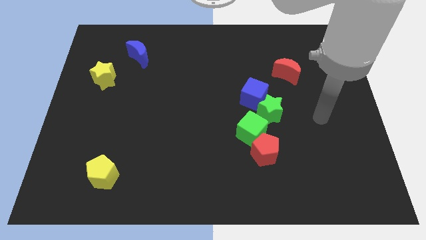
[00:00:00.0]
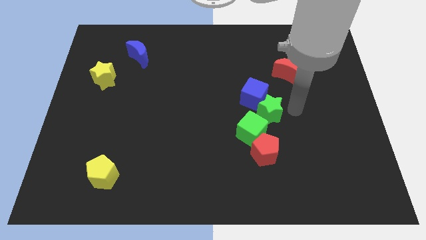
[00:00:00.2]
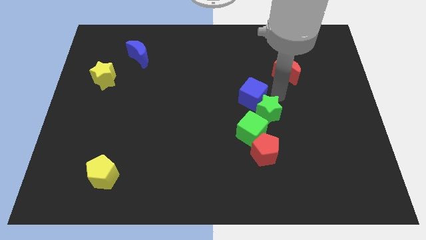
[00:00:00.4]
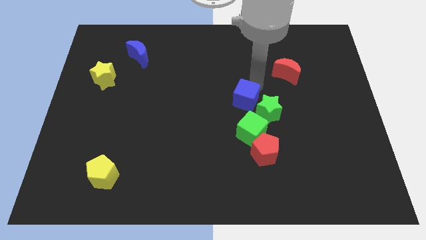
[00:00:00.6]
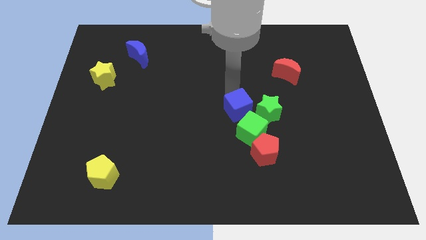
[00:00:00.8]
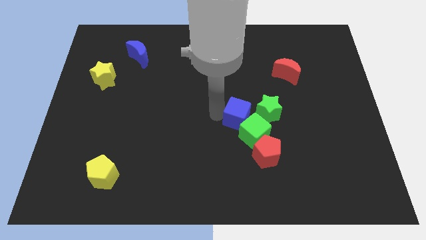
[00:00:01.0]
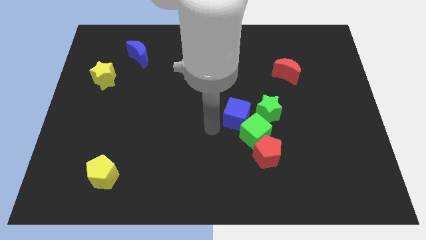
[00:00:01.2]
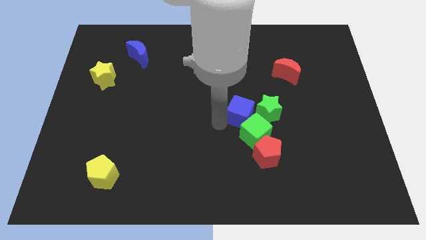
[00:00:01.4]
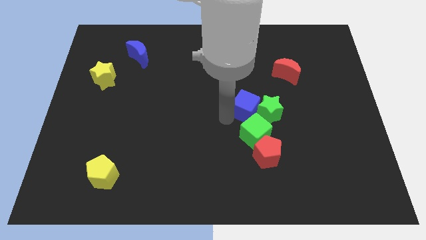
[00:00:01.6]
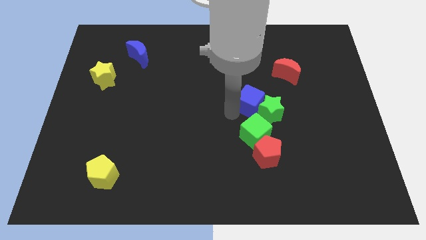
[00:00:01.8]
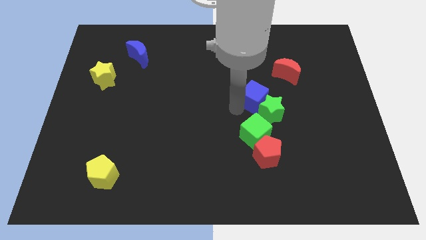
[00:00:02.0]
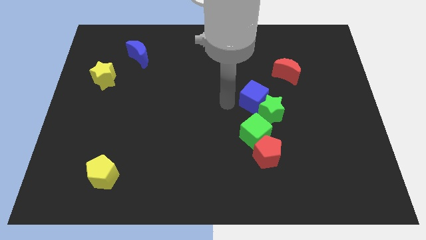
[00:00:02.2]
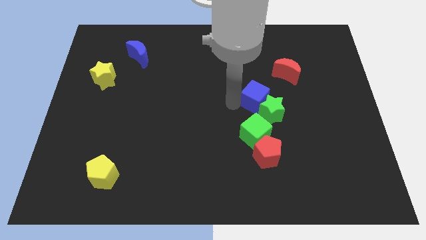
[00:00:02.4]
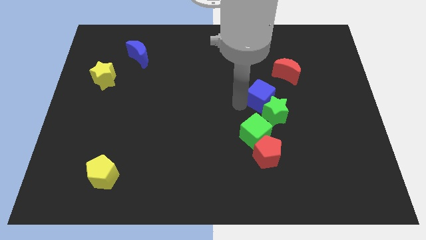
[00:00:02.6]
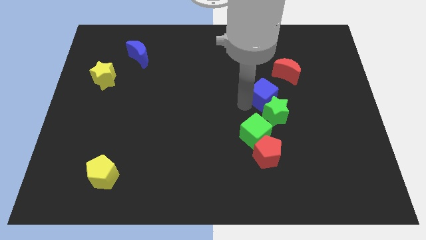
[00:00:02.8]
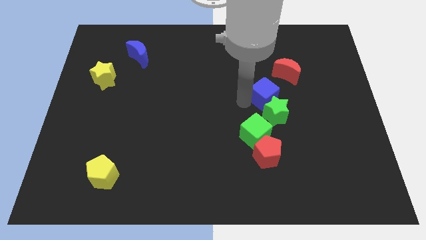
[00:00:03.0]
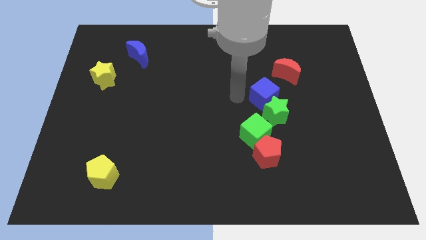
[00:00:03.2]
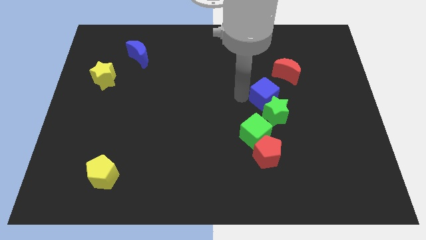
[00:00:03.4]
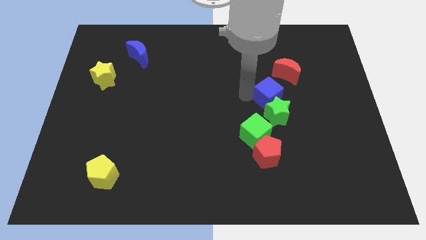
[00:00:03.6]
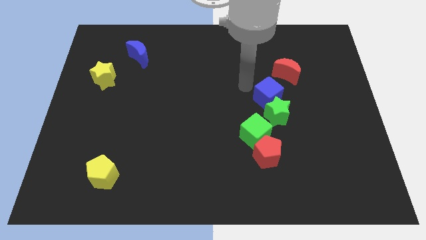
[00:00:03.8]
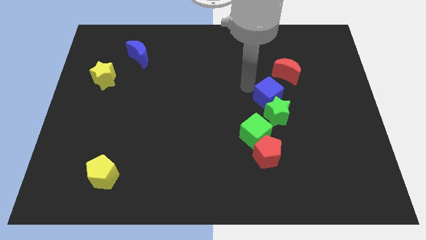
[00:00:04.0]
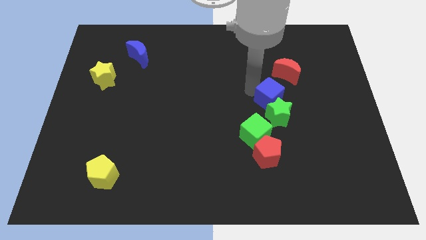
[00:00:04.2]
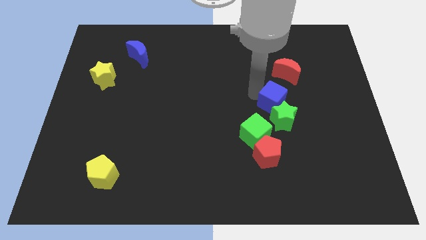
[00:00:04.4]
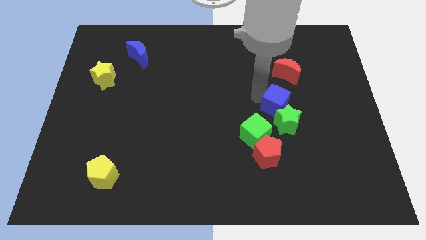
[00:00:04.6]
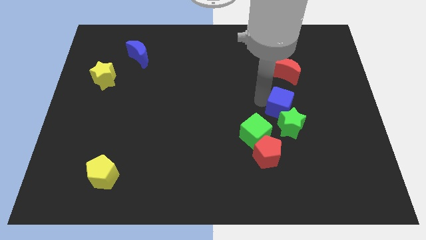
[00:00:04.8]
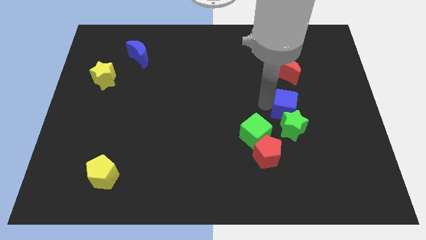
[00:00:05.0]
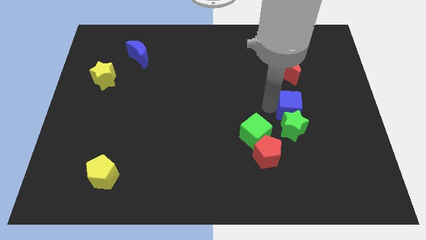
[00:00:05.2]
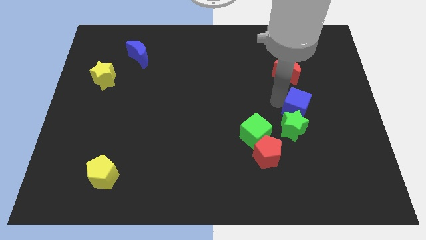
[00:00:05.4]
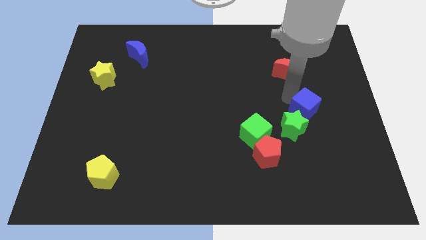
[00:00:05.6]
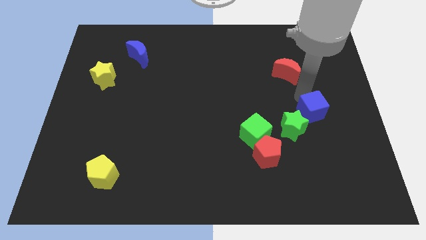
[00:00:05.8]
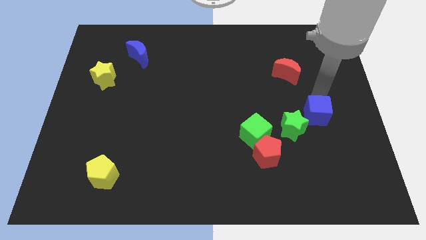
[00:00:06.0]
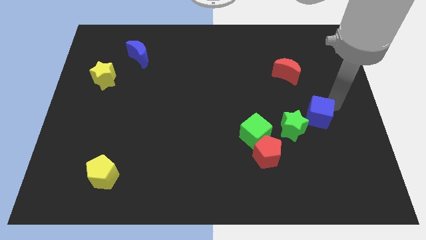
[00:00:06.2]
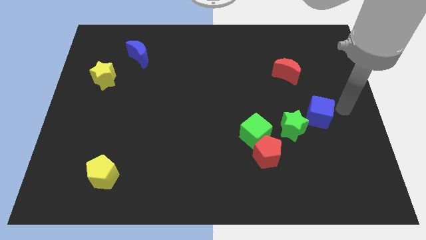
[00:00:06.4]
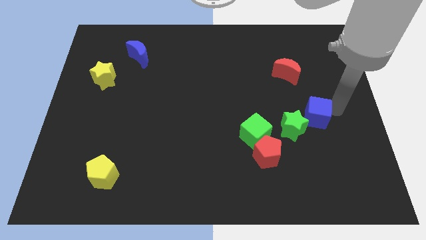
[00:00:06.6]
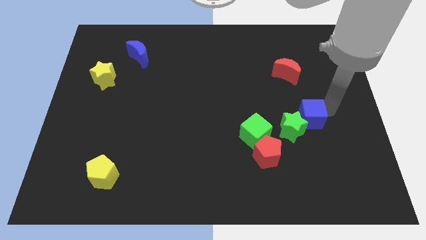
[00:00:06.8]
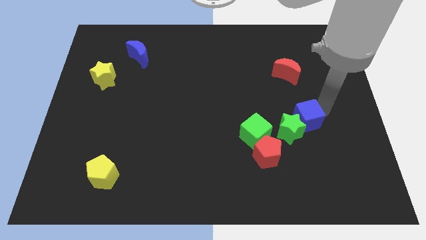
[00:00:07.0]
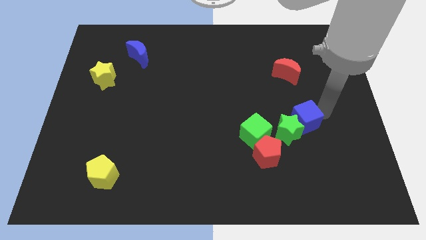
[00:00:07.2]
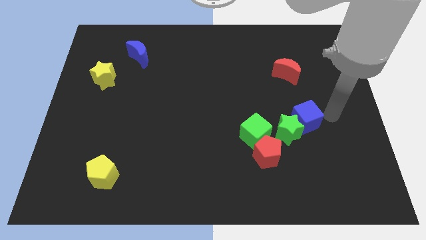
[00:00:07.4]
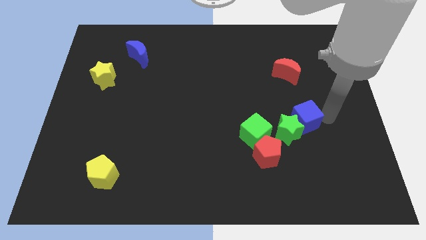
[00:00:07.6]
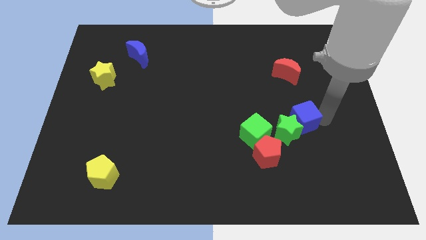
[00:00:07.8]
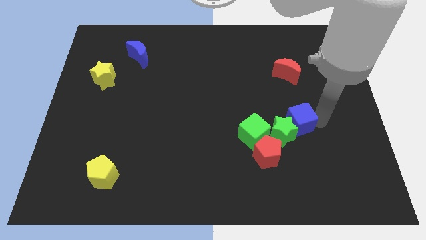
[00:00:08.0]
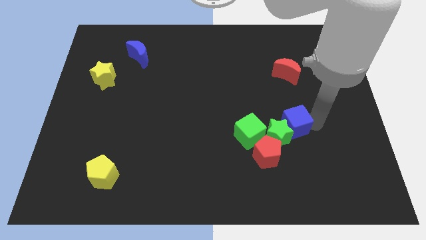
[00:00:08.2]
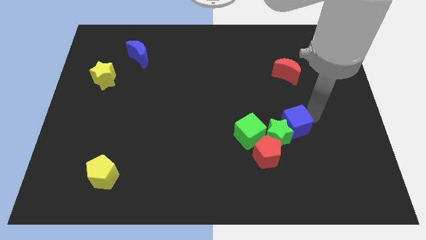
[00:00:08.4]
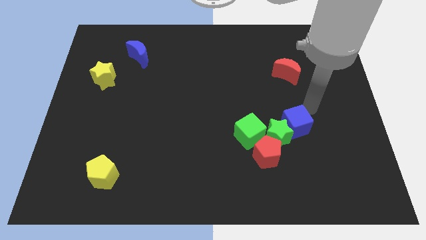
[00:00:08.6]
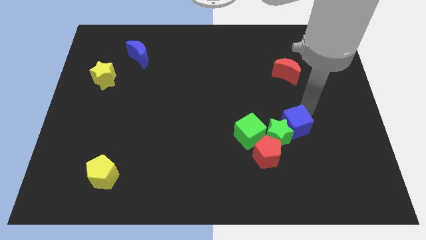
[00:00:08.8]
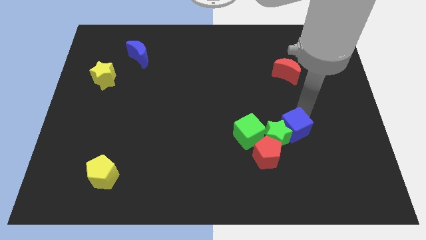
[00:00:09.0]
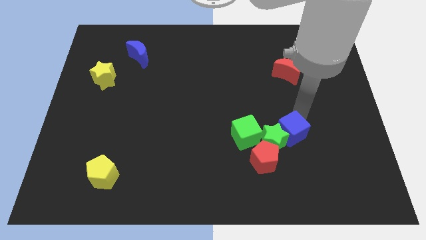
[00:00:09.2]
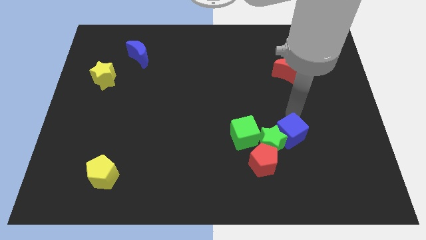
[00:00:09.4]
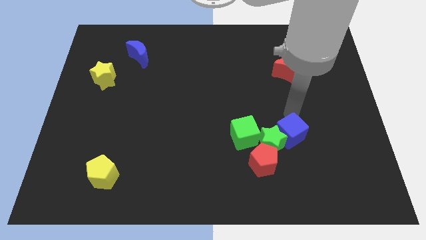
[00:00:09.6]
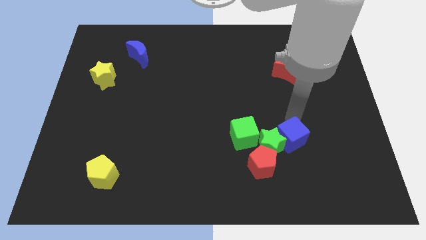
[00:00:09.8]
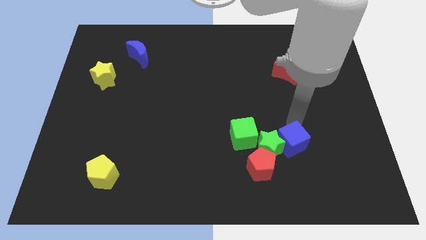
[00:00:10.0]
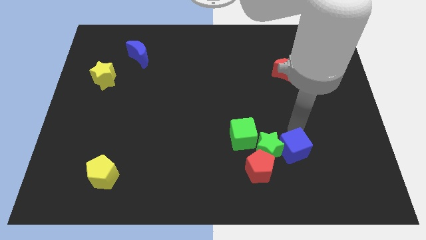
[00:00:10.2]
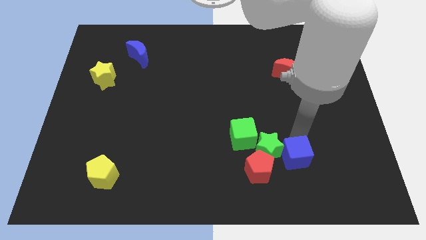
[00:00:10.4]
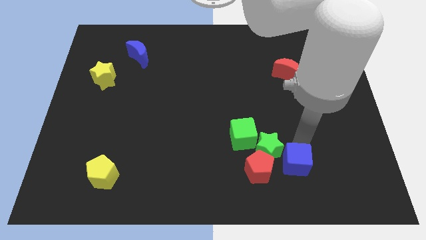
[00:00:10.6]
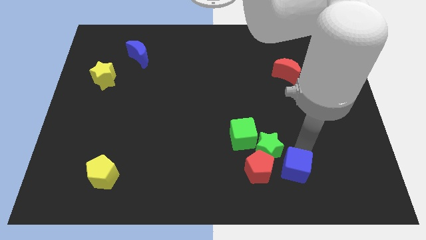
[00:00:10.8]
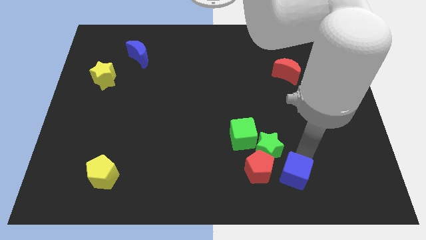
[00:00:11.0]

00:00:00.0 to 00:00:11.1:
push the blue cube to the bottom right side of the red pentagon

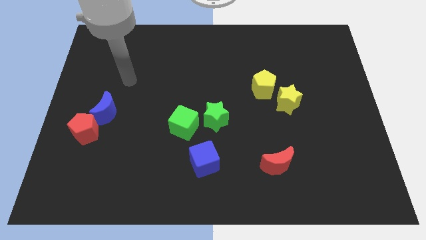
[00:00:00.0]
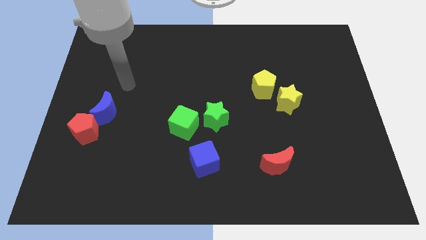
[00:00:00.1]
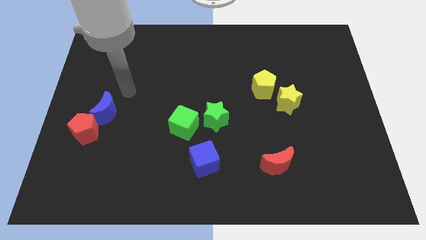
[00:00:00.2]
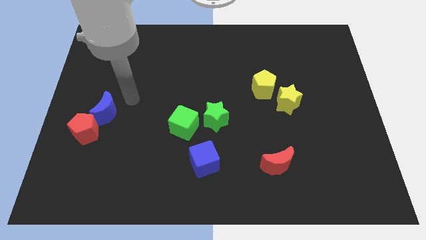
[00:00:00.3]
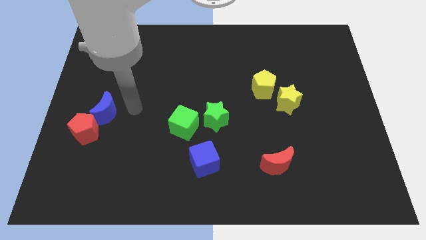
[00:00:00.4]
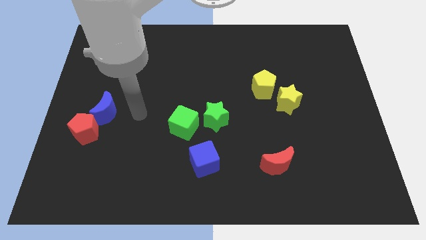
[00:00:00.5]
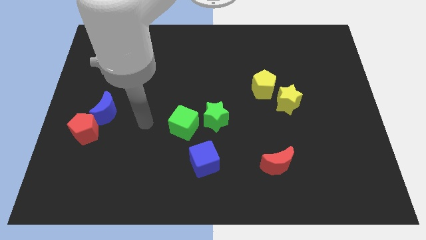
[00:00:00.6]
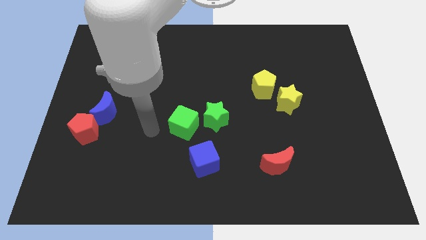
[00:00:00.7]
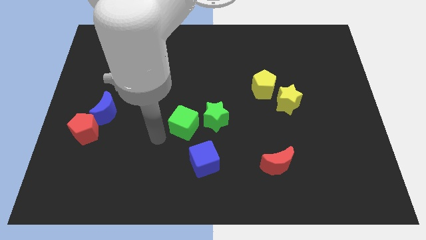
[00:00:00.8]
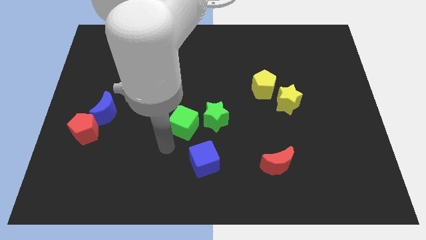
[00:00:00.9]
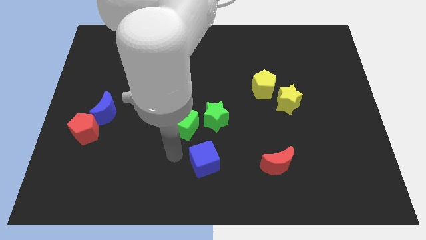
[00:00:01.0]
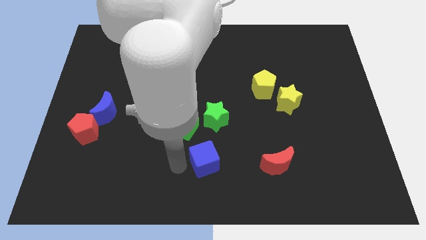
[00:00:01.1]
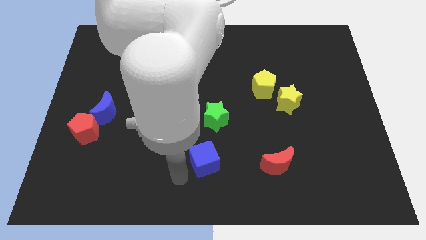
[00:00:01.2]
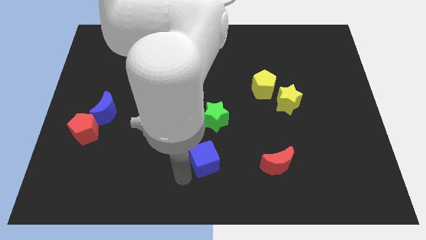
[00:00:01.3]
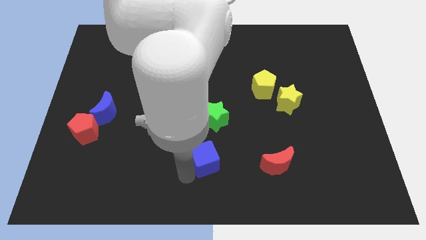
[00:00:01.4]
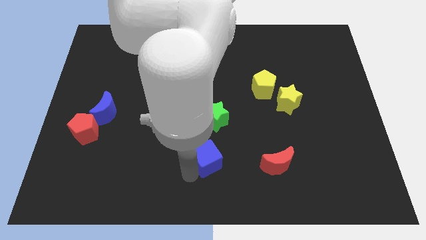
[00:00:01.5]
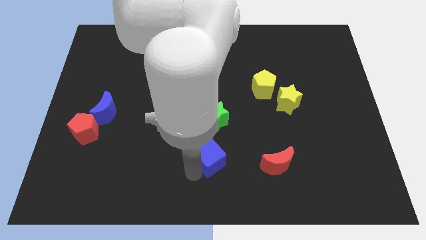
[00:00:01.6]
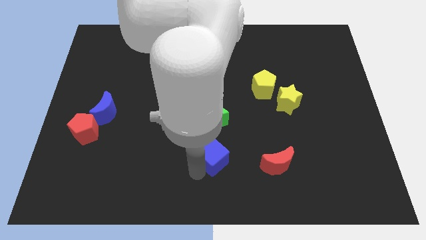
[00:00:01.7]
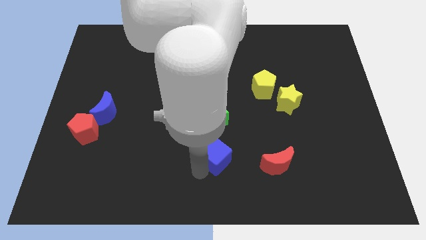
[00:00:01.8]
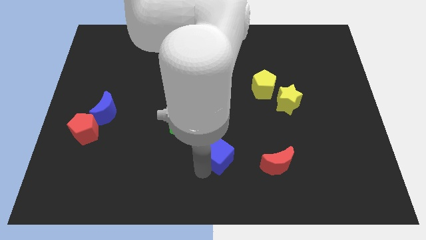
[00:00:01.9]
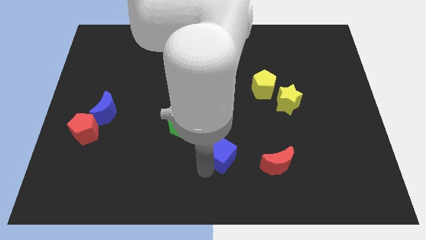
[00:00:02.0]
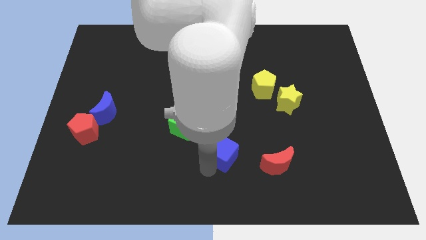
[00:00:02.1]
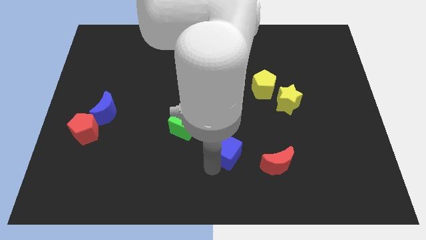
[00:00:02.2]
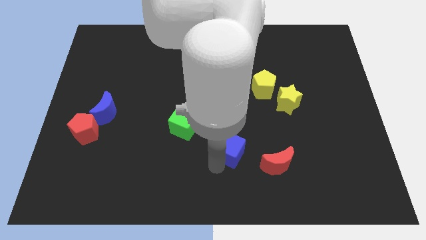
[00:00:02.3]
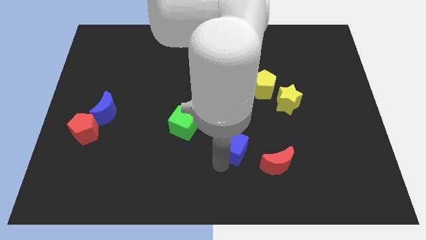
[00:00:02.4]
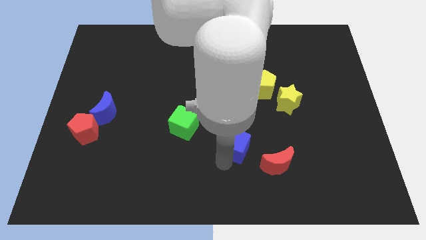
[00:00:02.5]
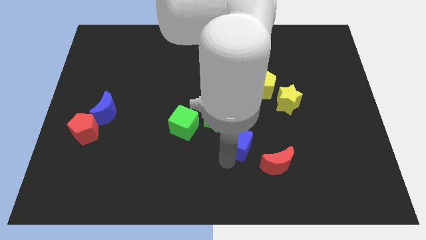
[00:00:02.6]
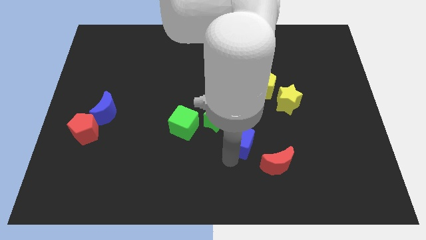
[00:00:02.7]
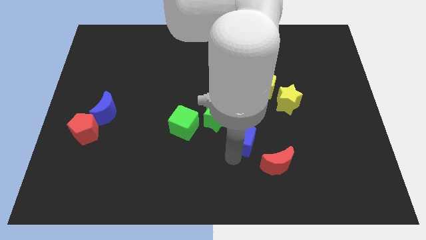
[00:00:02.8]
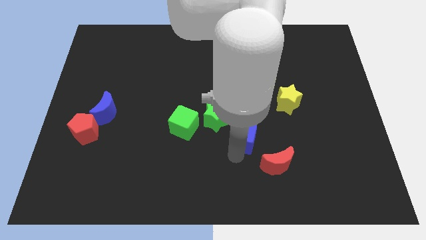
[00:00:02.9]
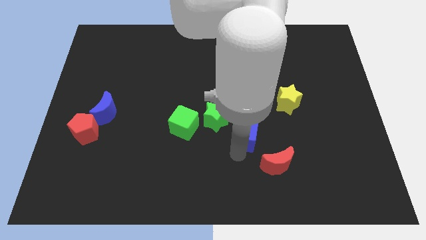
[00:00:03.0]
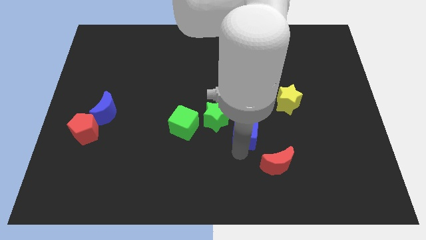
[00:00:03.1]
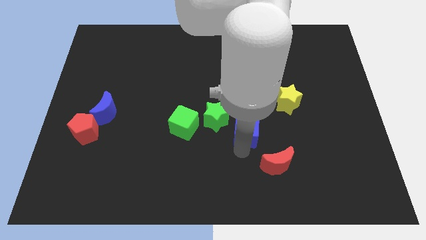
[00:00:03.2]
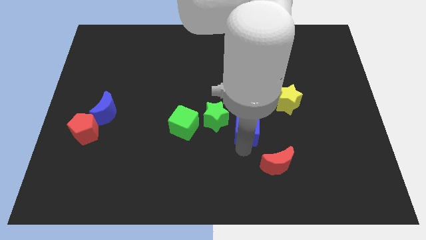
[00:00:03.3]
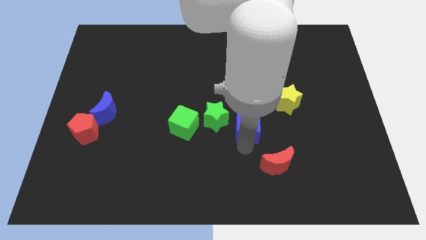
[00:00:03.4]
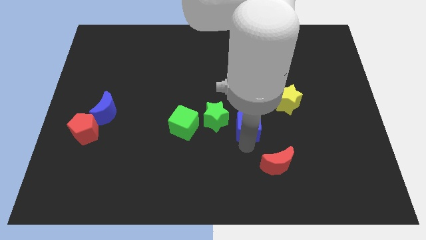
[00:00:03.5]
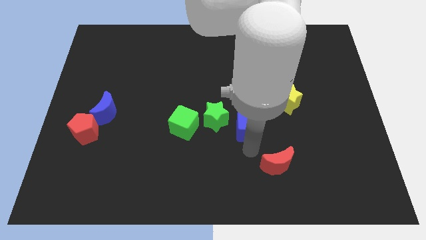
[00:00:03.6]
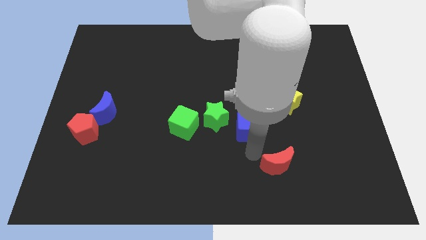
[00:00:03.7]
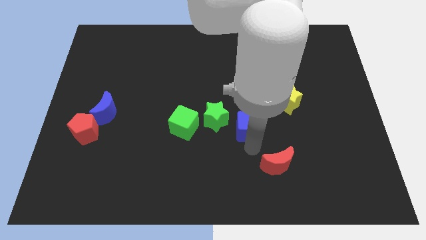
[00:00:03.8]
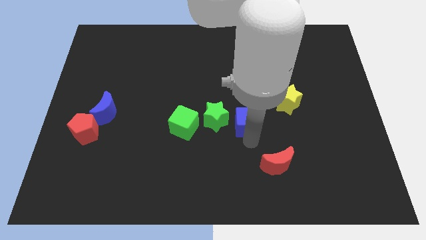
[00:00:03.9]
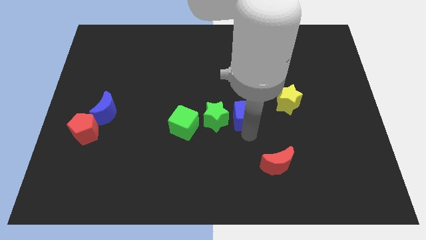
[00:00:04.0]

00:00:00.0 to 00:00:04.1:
push the blue cube to the bottom left of the yellow pentagon
